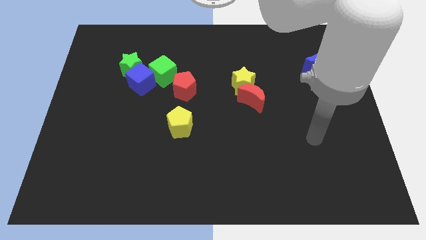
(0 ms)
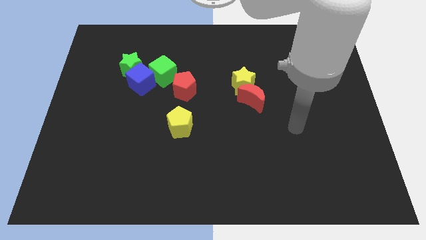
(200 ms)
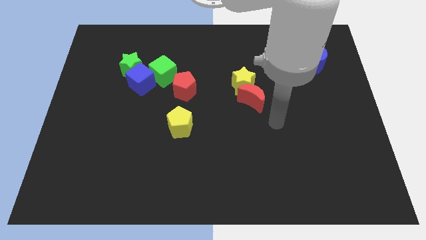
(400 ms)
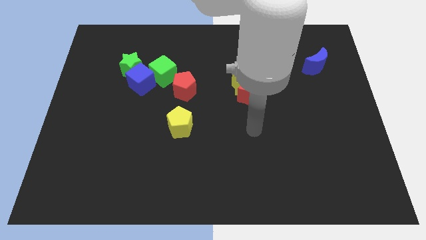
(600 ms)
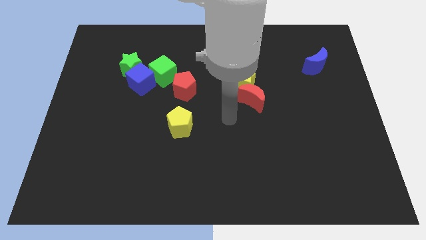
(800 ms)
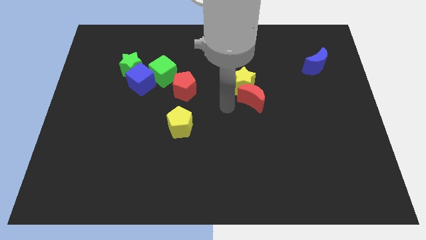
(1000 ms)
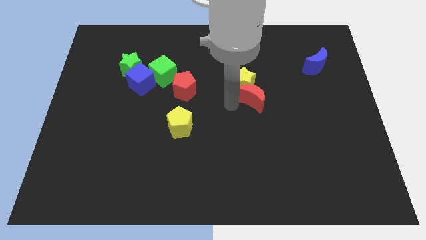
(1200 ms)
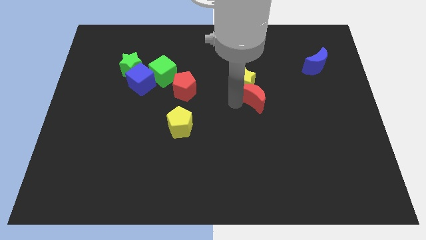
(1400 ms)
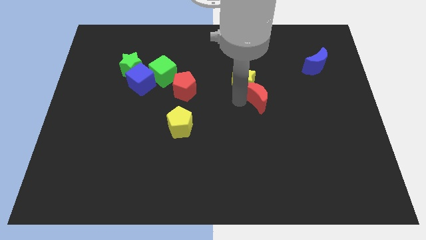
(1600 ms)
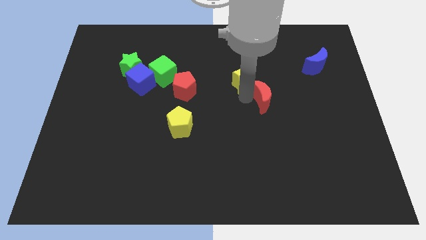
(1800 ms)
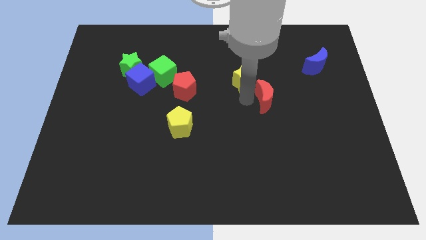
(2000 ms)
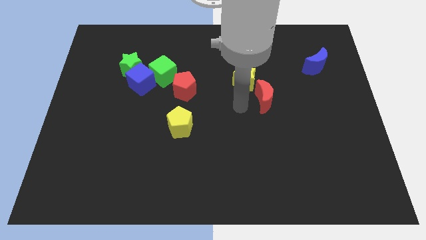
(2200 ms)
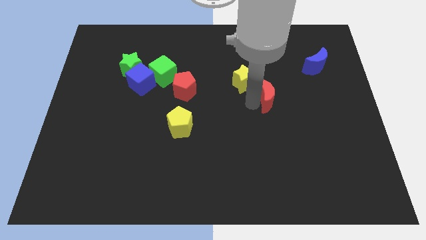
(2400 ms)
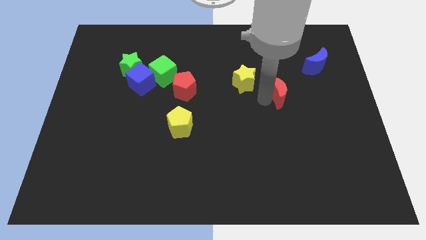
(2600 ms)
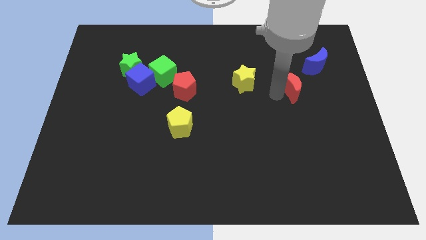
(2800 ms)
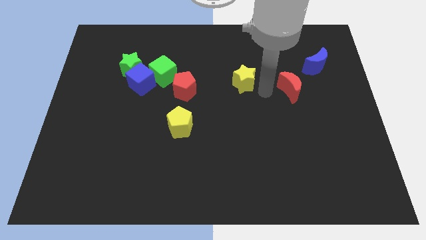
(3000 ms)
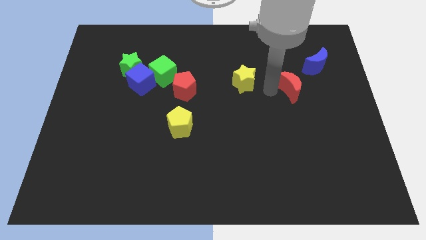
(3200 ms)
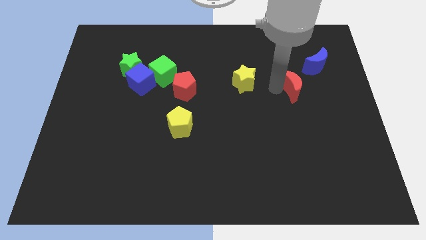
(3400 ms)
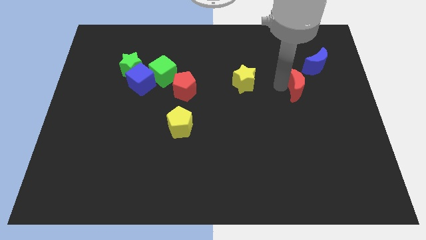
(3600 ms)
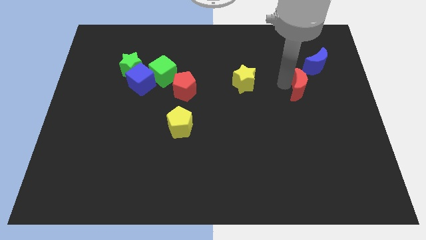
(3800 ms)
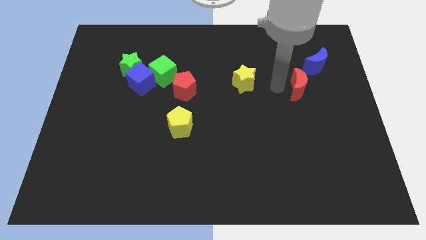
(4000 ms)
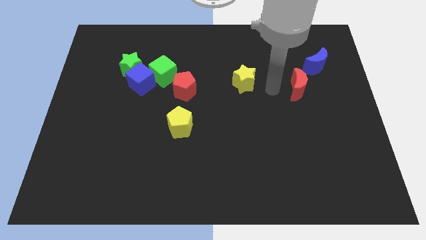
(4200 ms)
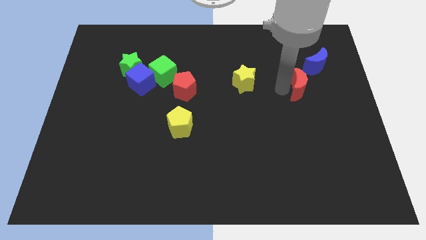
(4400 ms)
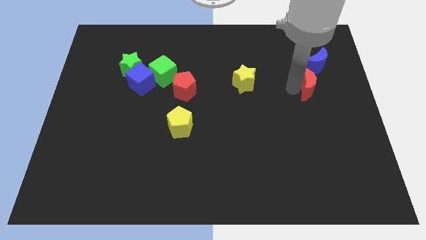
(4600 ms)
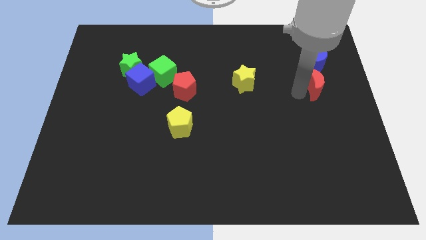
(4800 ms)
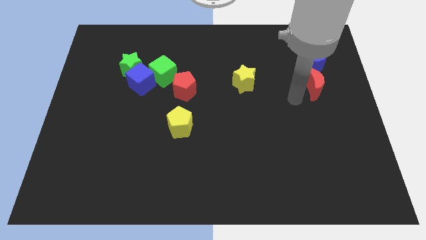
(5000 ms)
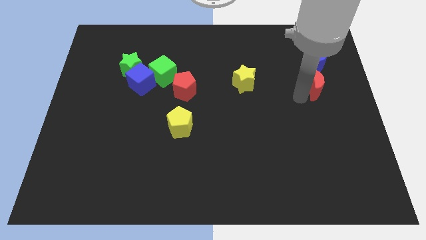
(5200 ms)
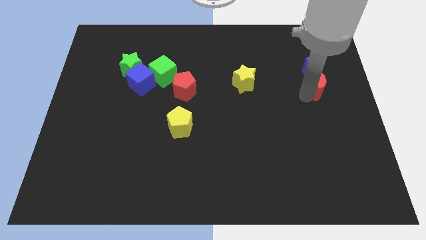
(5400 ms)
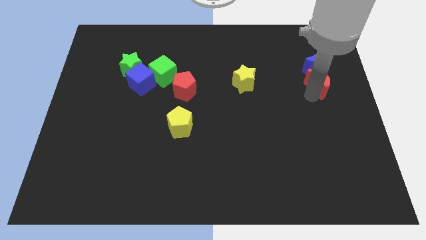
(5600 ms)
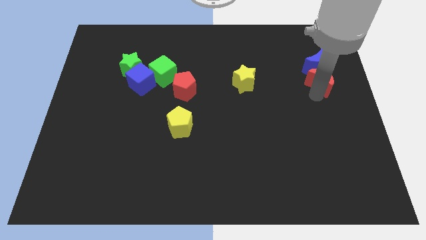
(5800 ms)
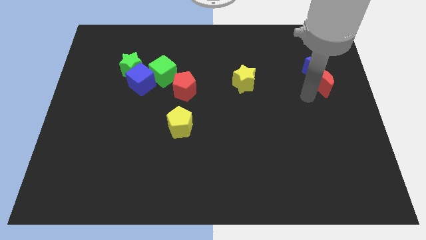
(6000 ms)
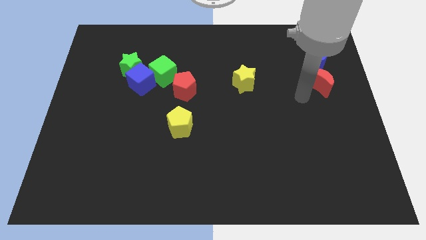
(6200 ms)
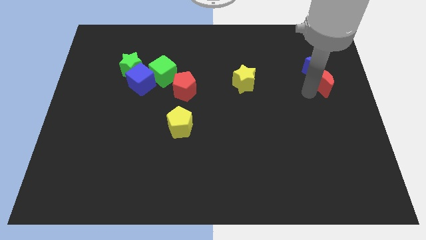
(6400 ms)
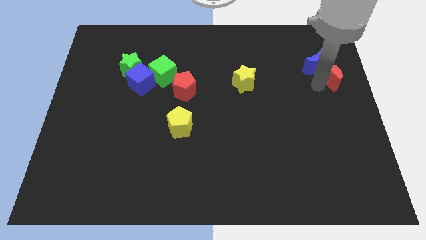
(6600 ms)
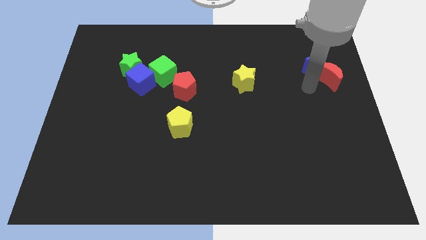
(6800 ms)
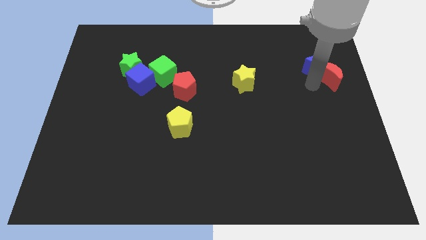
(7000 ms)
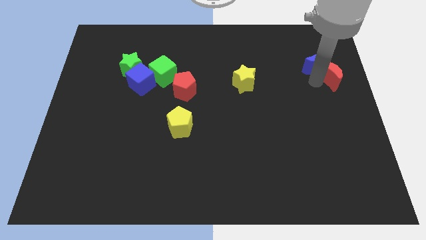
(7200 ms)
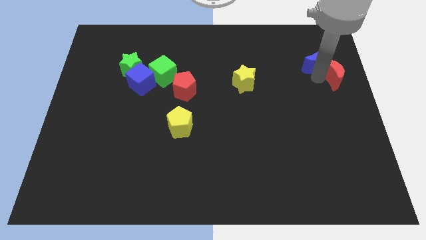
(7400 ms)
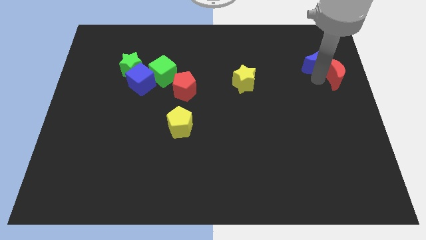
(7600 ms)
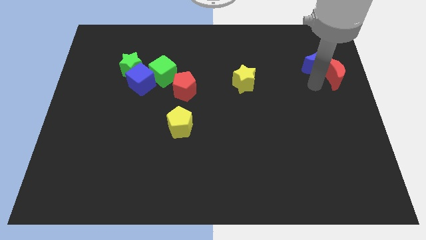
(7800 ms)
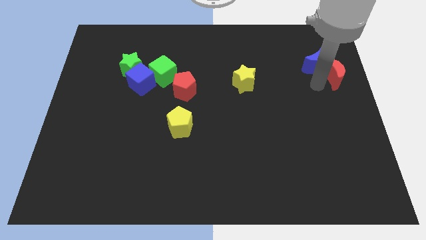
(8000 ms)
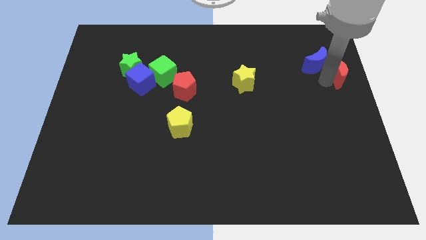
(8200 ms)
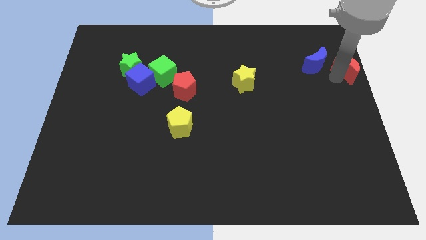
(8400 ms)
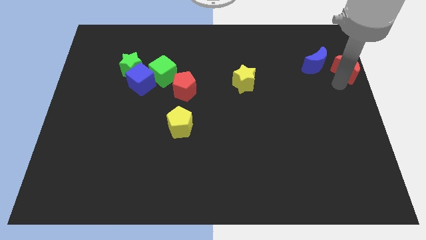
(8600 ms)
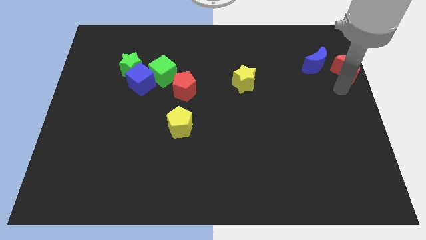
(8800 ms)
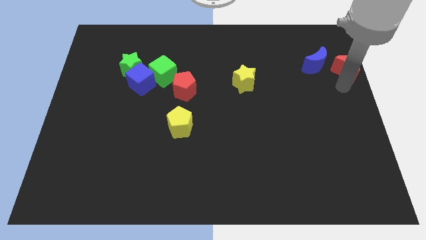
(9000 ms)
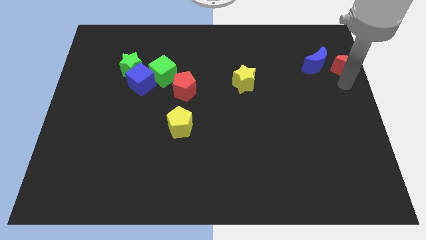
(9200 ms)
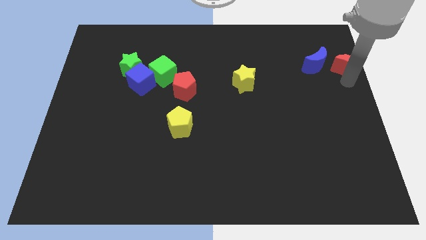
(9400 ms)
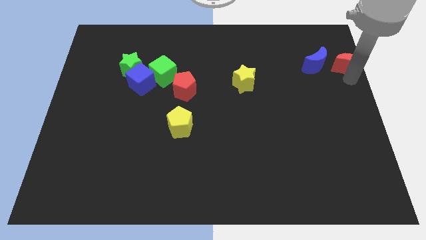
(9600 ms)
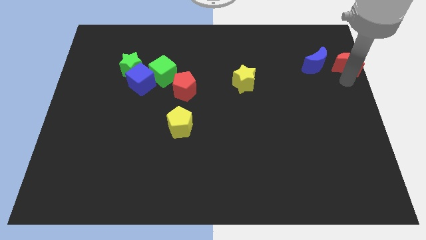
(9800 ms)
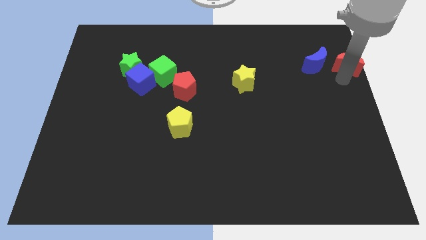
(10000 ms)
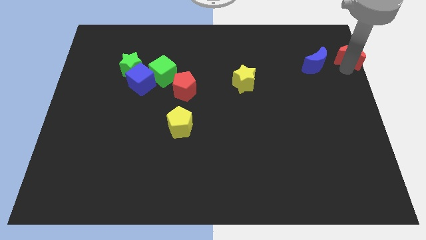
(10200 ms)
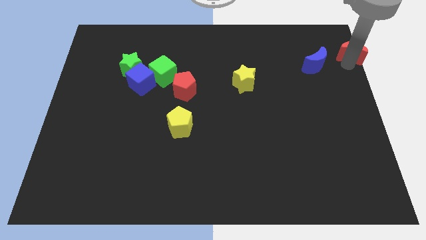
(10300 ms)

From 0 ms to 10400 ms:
move the red moon to the upper right corner

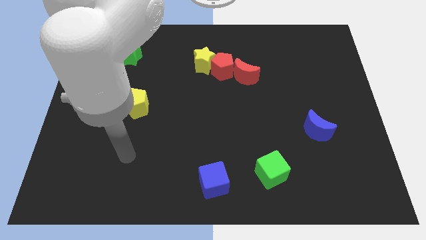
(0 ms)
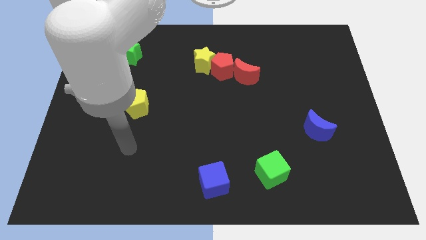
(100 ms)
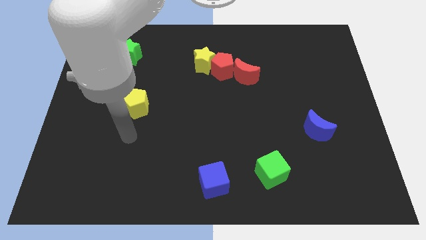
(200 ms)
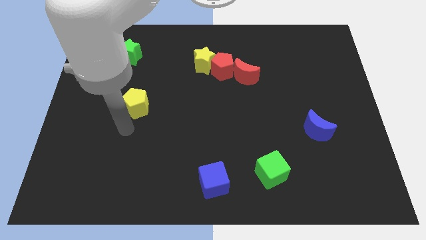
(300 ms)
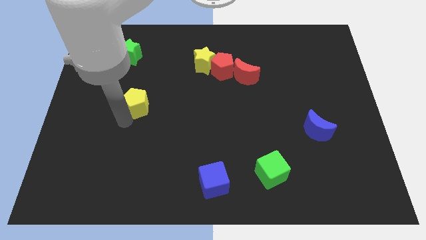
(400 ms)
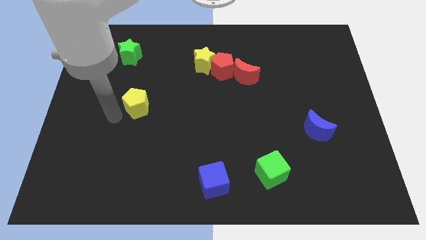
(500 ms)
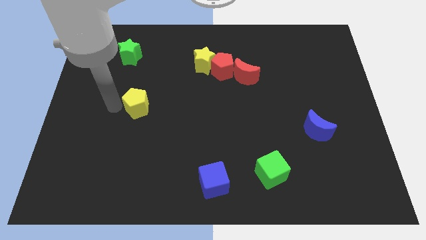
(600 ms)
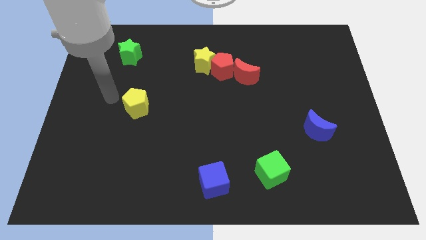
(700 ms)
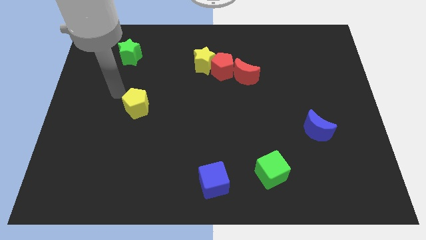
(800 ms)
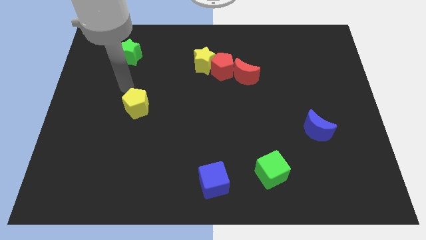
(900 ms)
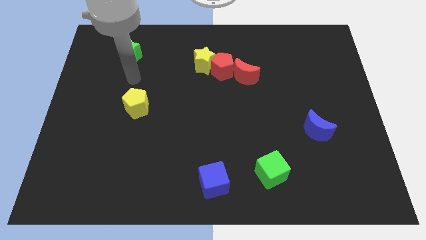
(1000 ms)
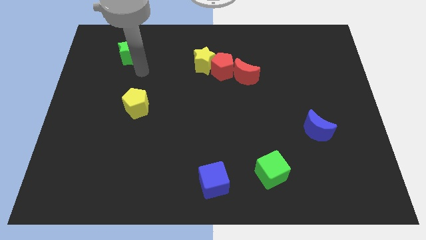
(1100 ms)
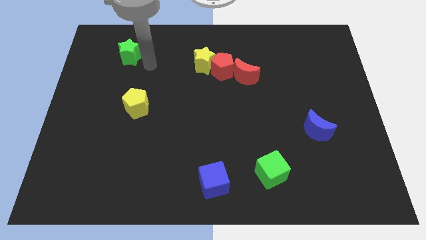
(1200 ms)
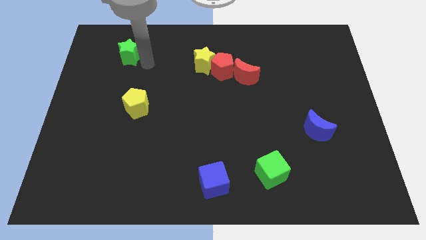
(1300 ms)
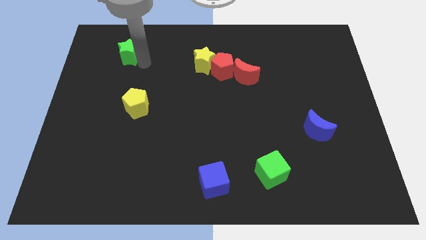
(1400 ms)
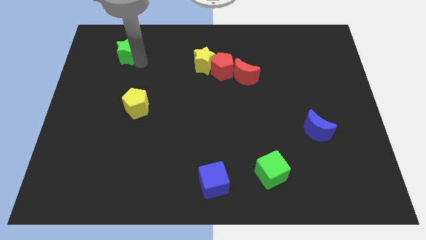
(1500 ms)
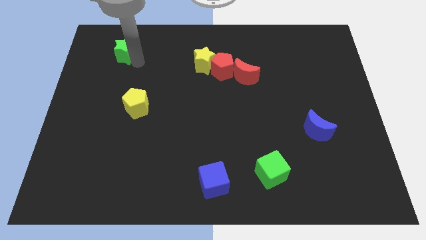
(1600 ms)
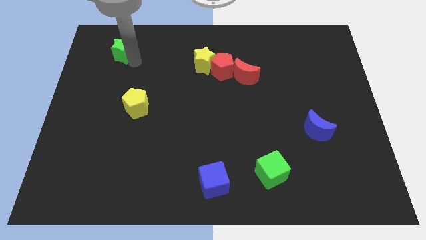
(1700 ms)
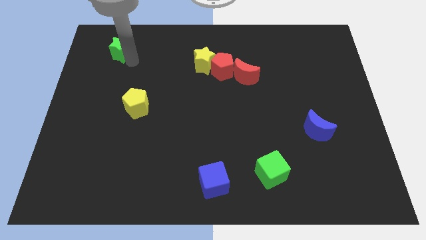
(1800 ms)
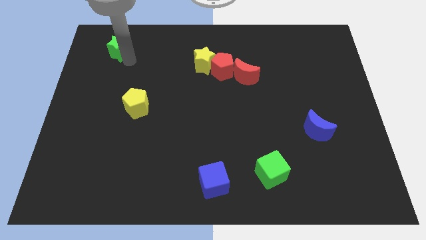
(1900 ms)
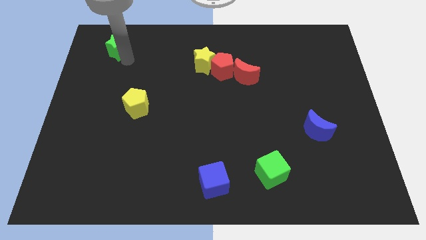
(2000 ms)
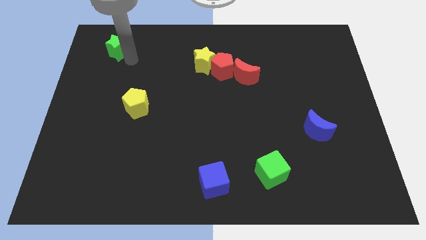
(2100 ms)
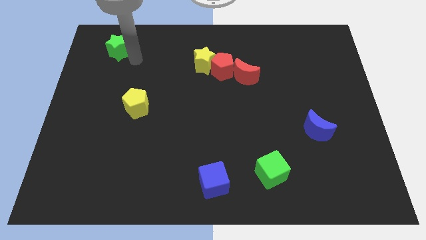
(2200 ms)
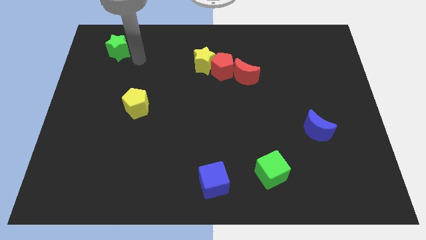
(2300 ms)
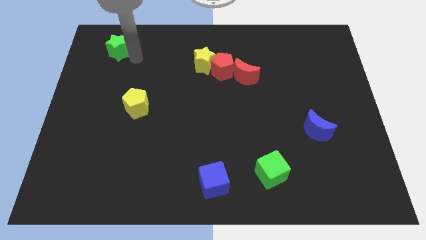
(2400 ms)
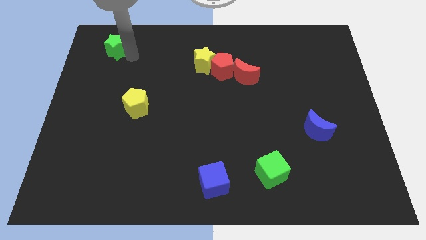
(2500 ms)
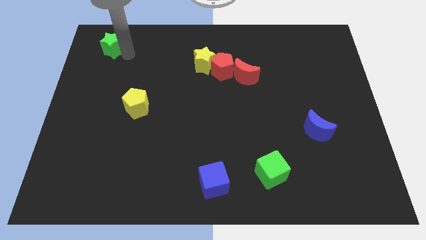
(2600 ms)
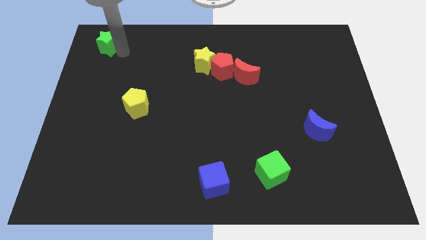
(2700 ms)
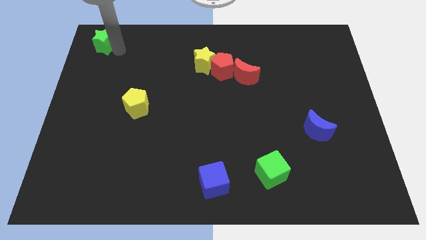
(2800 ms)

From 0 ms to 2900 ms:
move the green star to the top left of the board
